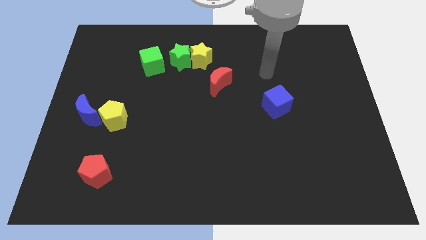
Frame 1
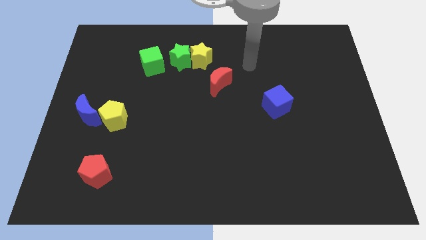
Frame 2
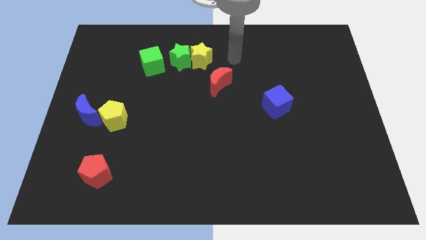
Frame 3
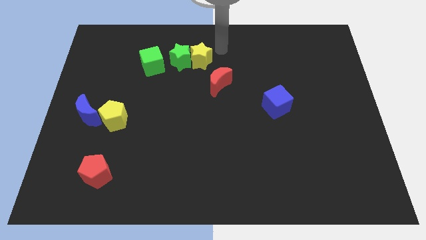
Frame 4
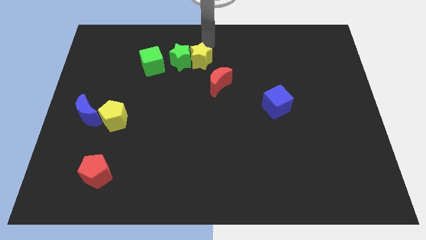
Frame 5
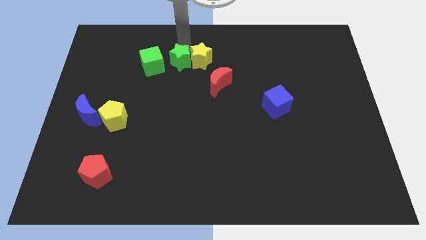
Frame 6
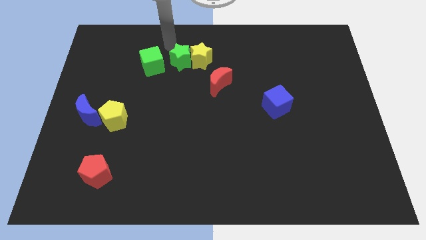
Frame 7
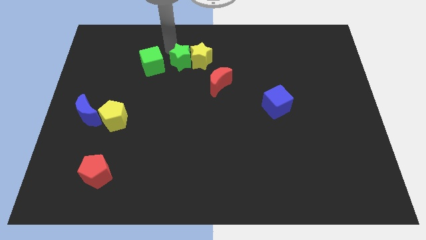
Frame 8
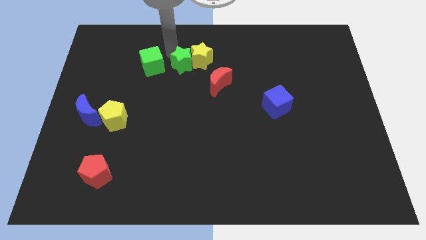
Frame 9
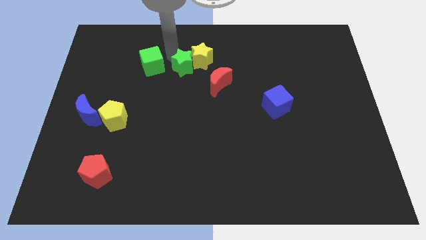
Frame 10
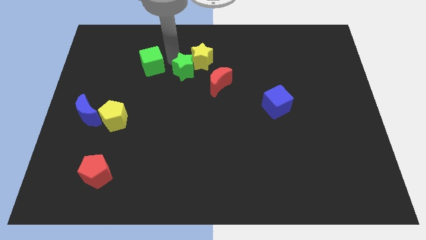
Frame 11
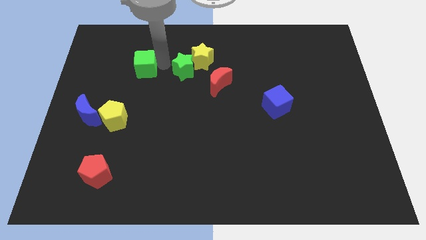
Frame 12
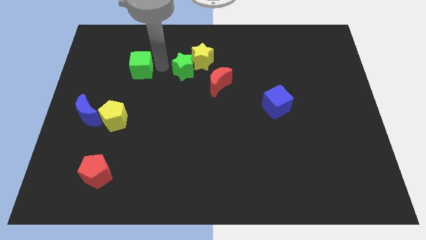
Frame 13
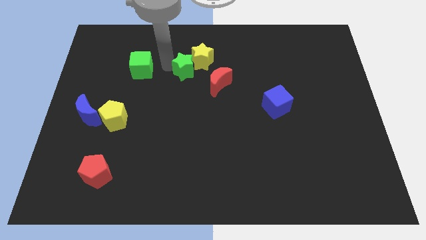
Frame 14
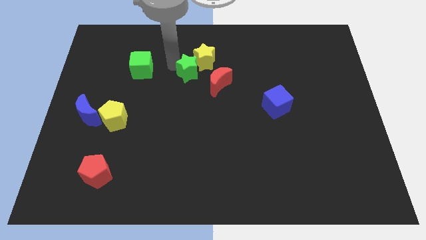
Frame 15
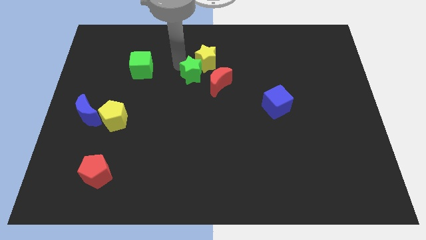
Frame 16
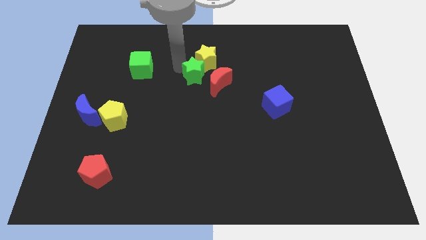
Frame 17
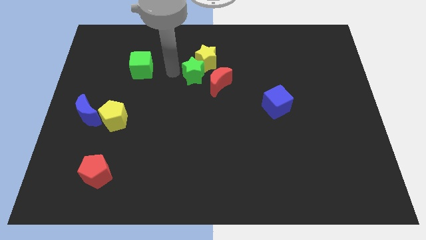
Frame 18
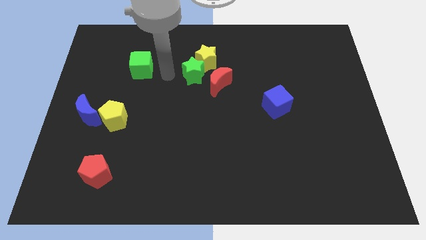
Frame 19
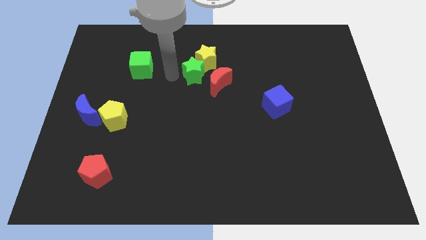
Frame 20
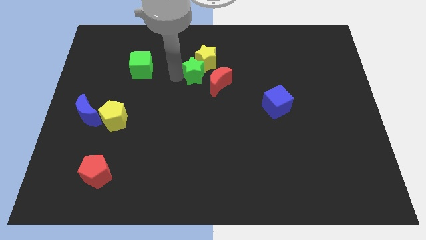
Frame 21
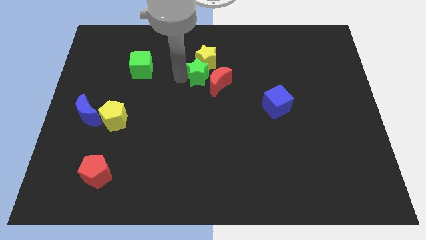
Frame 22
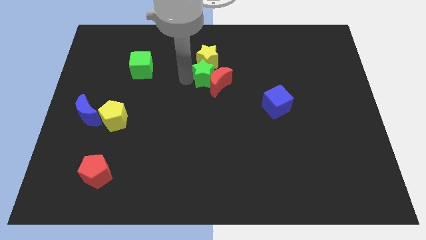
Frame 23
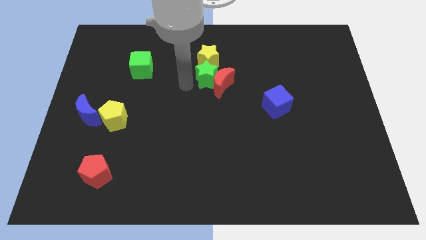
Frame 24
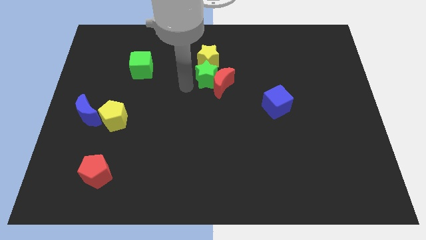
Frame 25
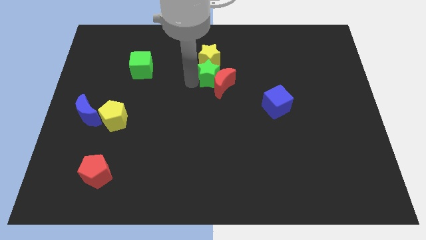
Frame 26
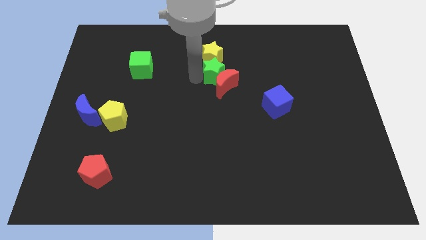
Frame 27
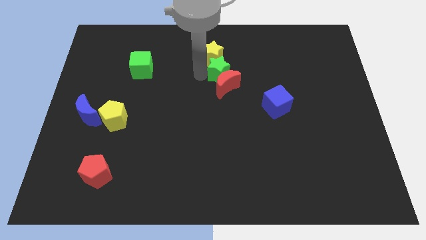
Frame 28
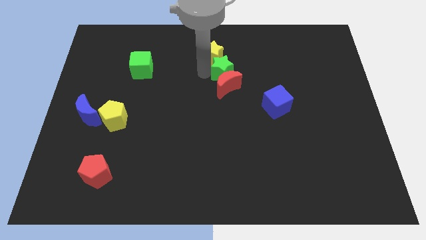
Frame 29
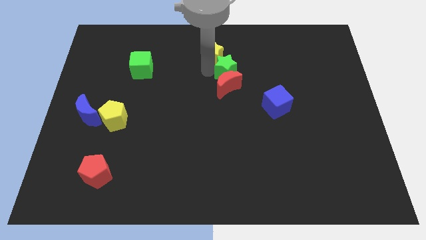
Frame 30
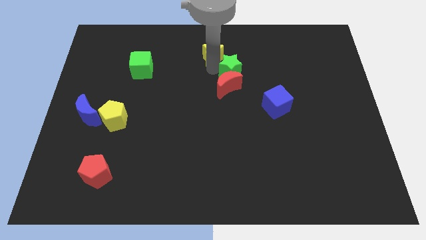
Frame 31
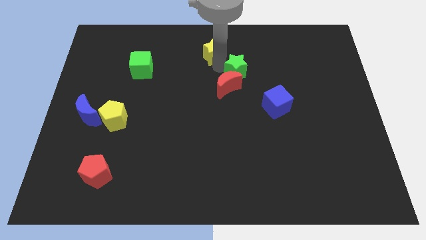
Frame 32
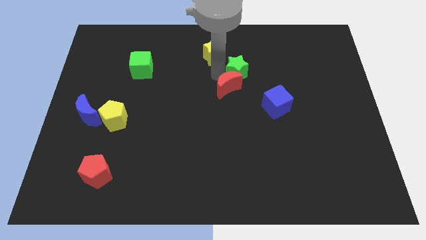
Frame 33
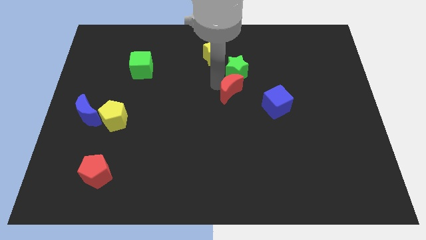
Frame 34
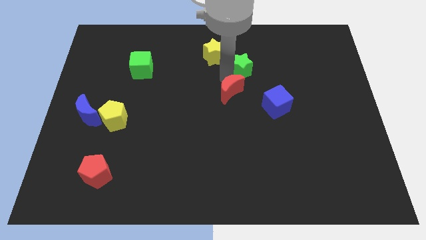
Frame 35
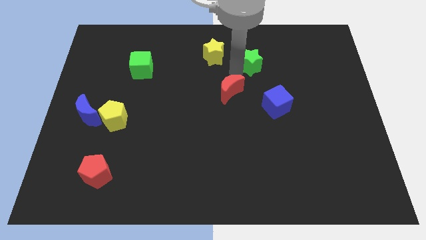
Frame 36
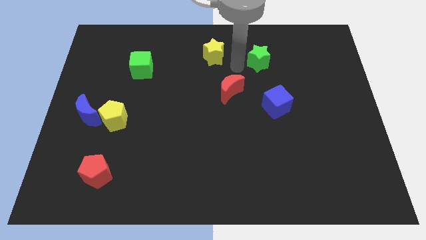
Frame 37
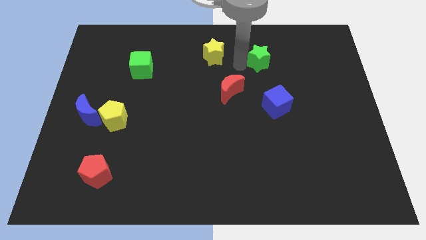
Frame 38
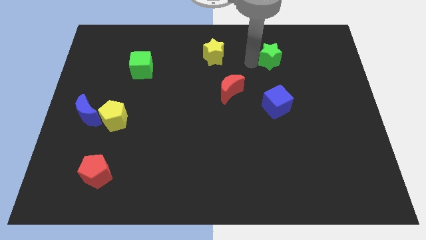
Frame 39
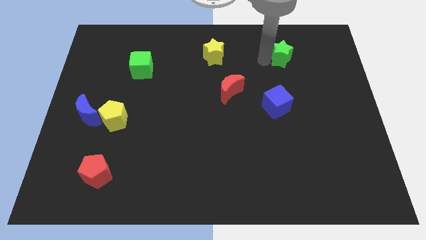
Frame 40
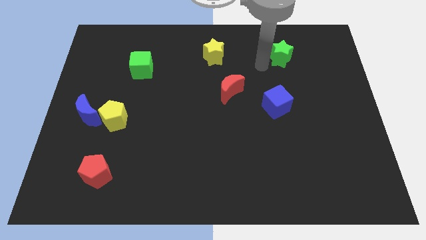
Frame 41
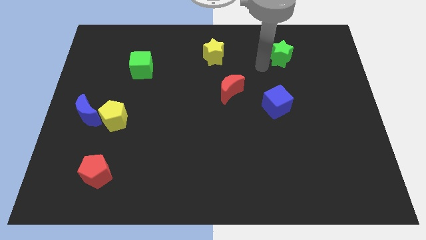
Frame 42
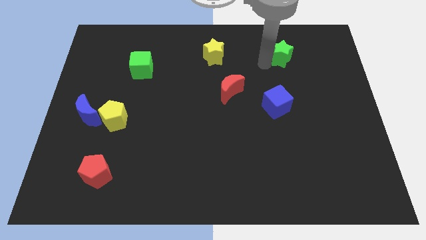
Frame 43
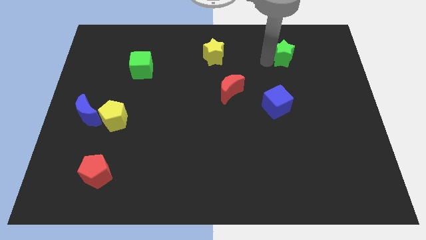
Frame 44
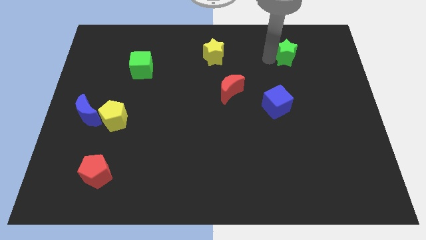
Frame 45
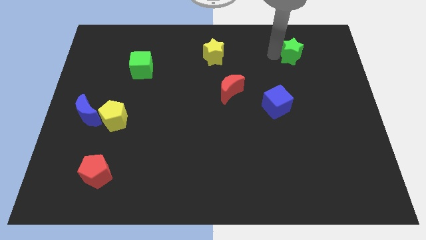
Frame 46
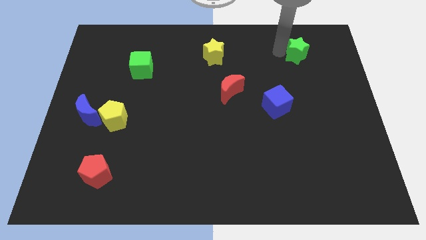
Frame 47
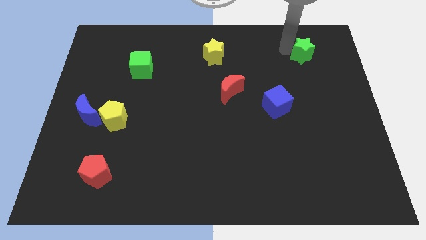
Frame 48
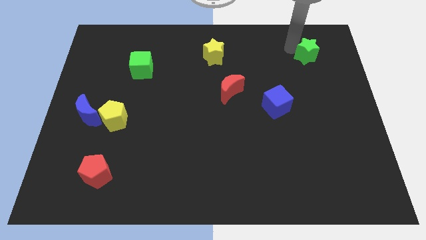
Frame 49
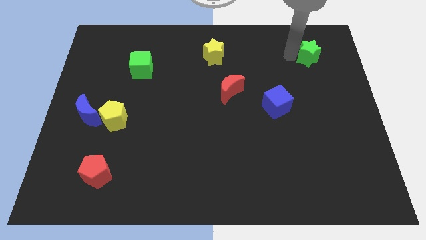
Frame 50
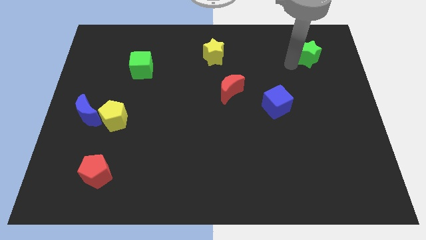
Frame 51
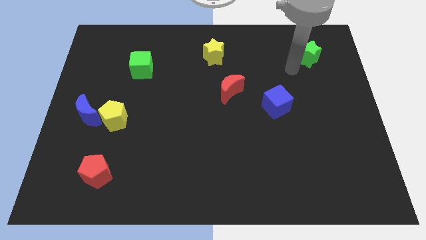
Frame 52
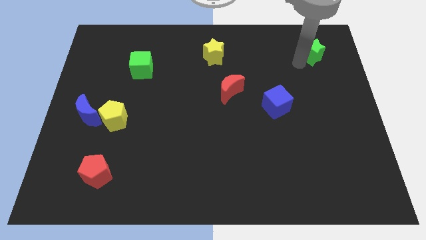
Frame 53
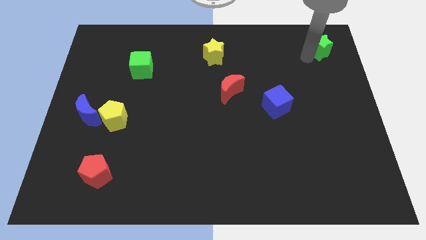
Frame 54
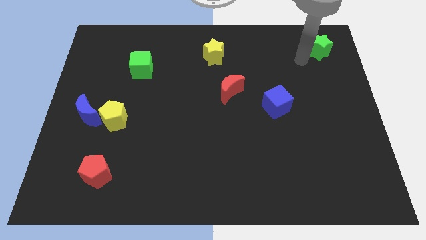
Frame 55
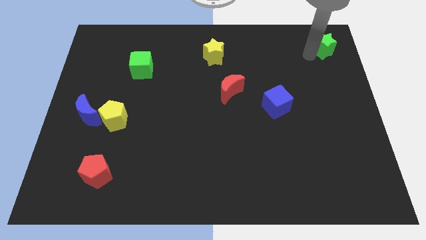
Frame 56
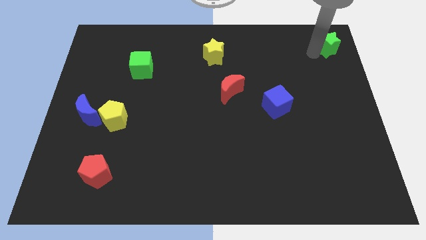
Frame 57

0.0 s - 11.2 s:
move the green star to the top right of the board

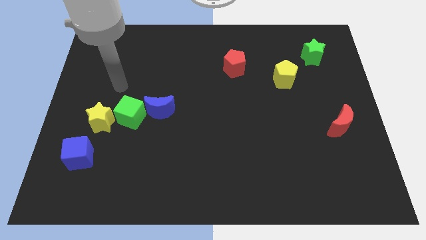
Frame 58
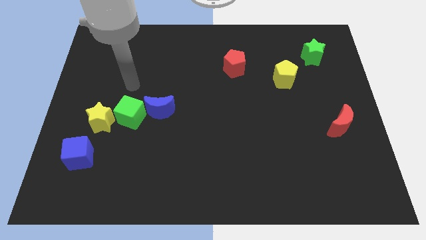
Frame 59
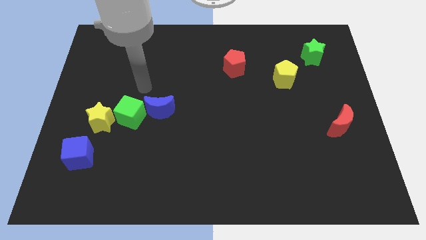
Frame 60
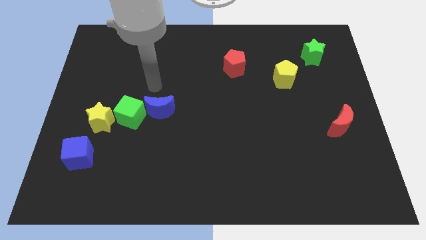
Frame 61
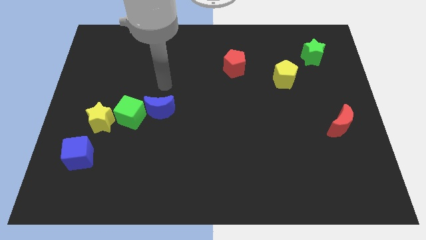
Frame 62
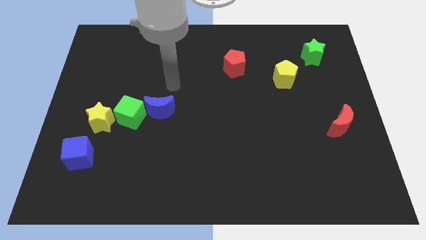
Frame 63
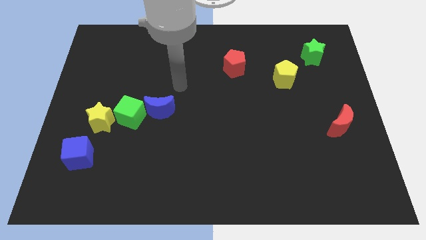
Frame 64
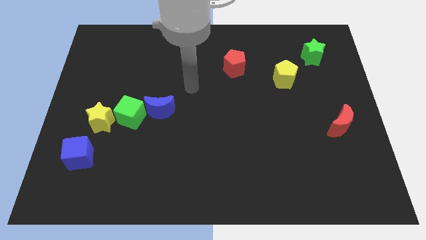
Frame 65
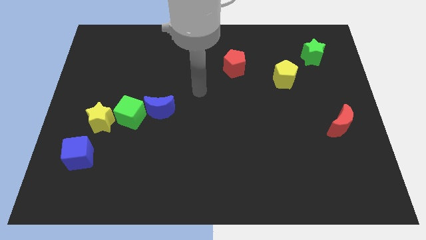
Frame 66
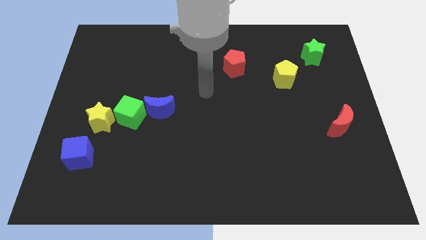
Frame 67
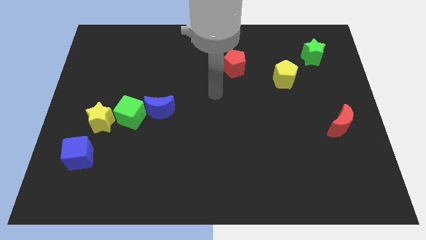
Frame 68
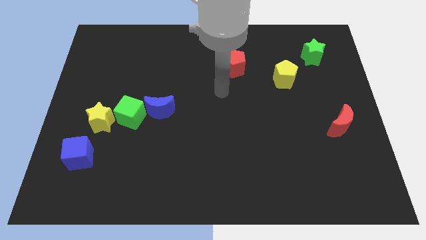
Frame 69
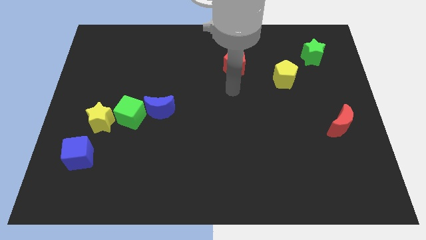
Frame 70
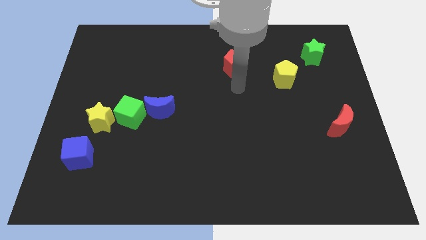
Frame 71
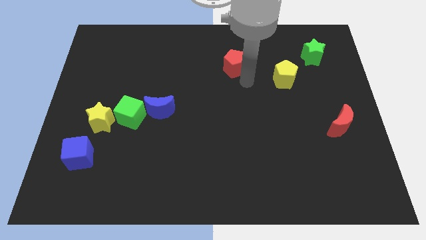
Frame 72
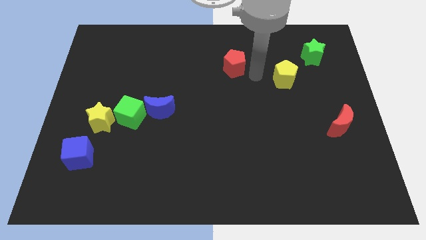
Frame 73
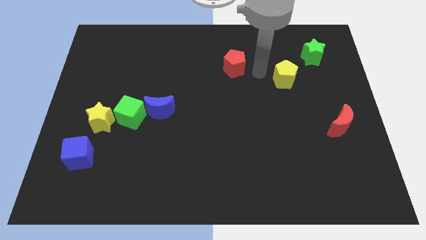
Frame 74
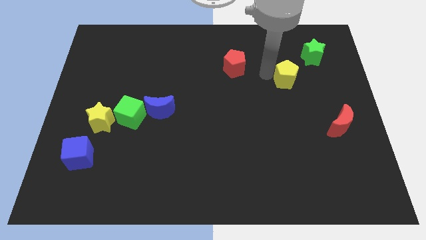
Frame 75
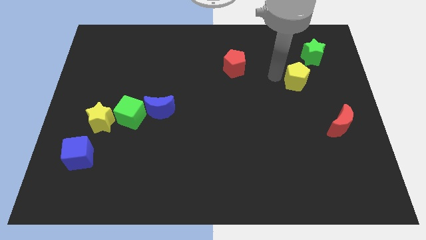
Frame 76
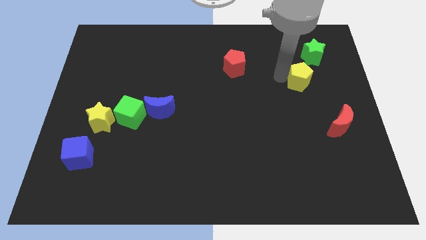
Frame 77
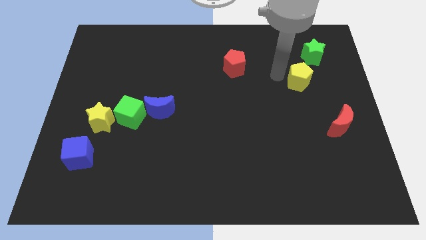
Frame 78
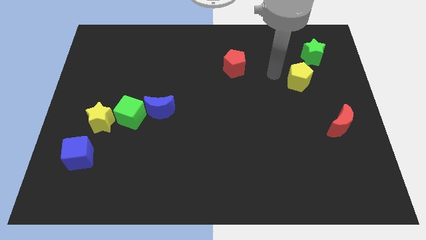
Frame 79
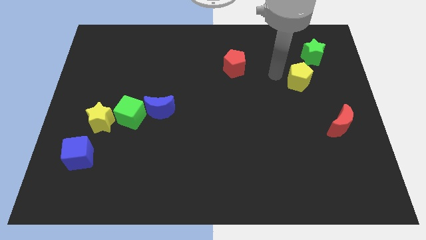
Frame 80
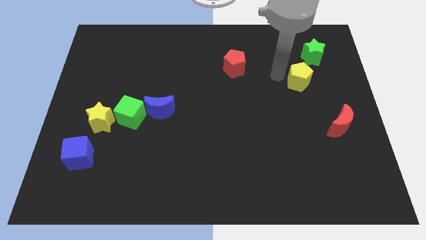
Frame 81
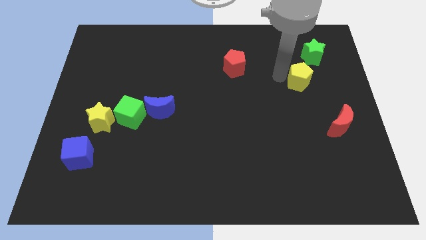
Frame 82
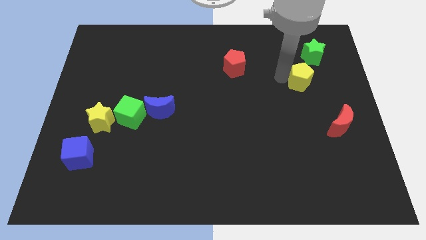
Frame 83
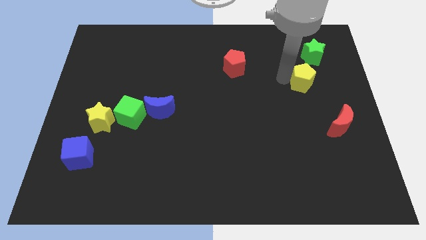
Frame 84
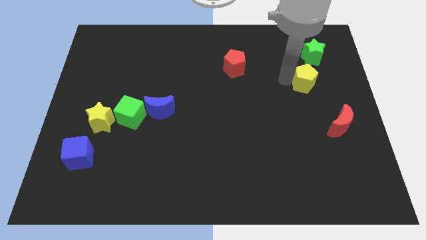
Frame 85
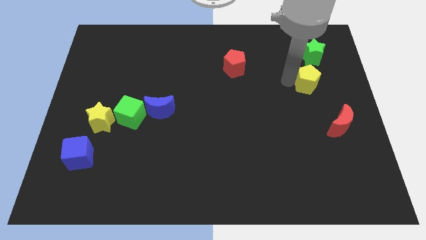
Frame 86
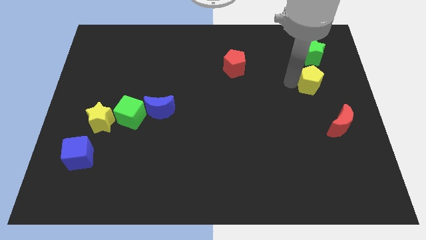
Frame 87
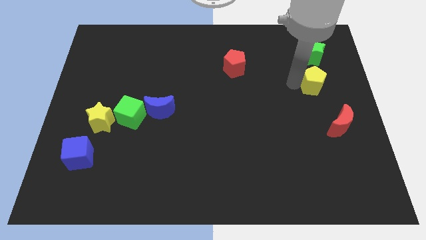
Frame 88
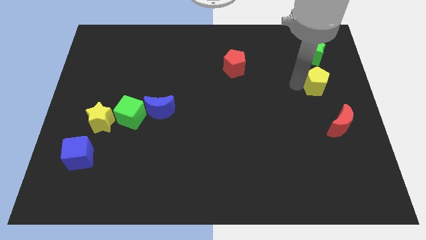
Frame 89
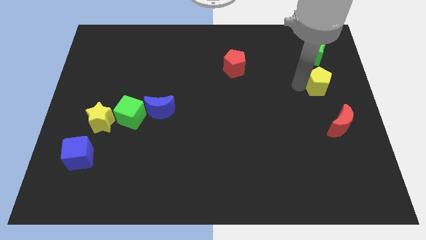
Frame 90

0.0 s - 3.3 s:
push the yellow pentagon to the center right
